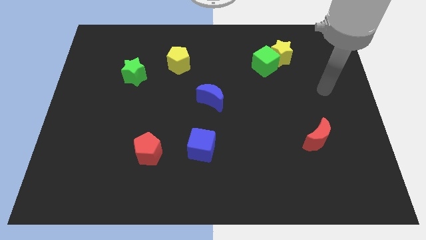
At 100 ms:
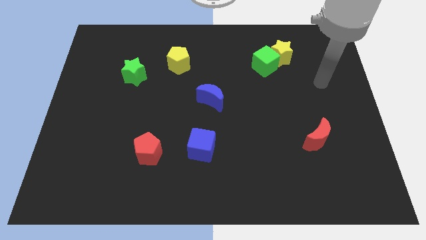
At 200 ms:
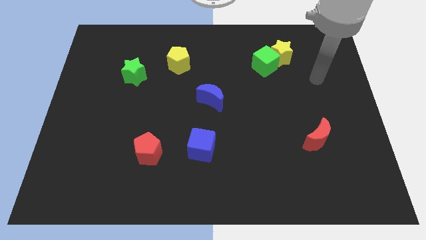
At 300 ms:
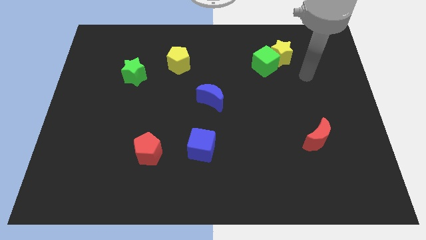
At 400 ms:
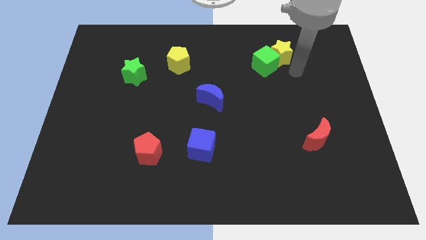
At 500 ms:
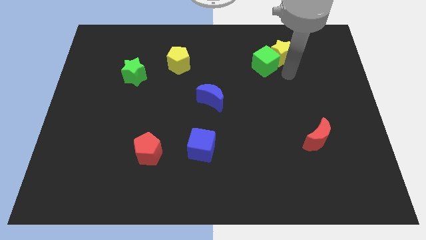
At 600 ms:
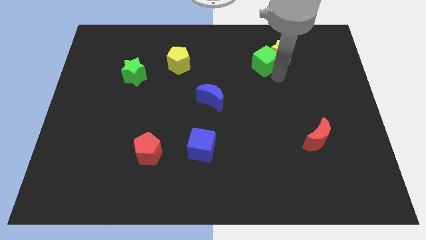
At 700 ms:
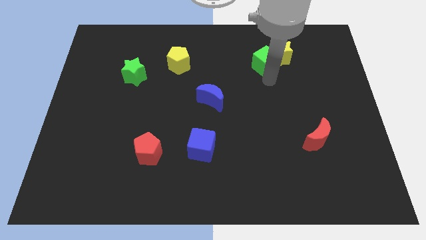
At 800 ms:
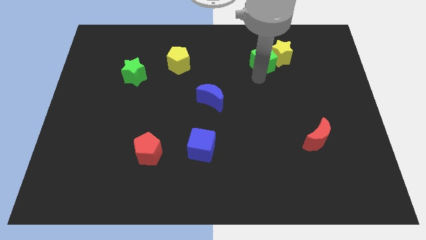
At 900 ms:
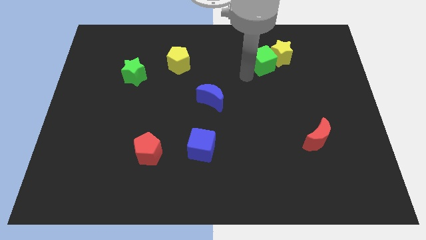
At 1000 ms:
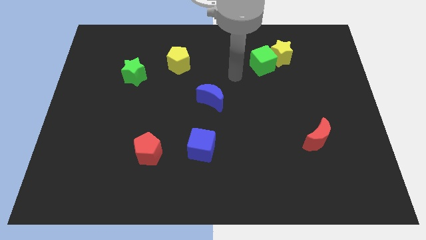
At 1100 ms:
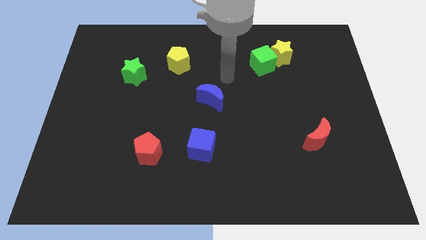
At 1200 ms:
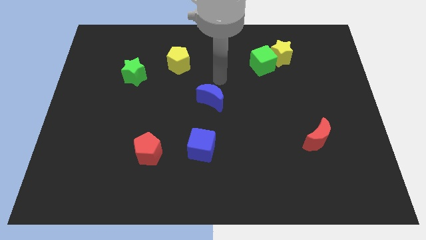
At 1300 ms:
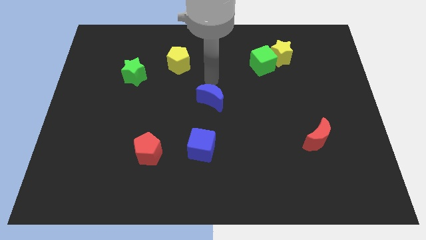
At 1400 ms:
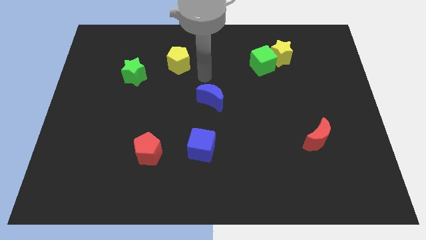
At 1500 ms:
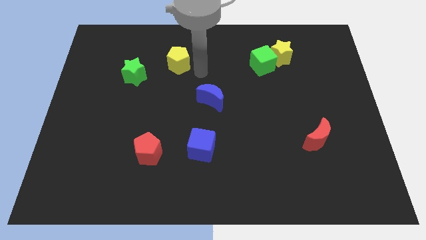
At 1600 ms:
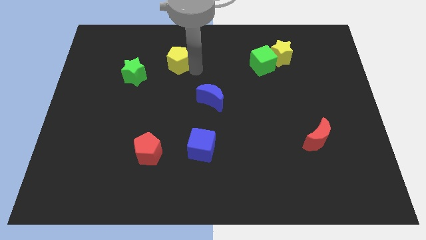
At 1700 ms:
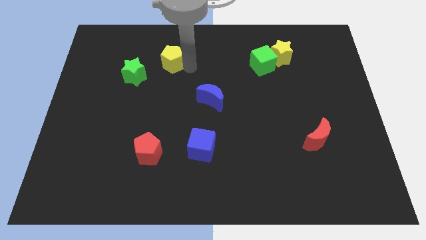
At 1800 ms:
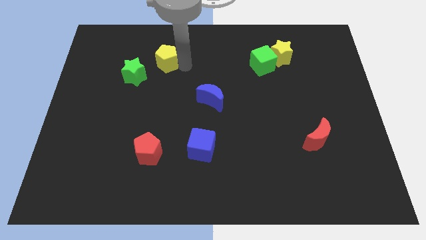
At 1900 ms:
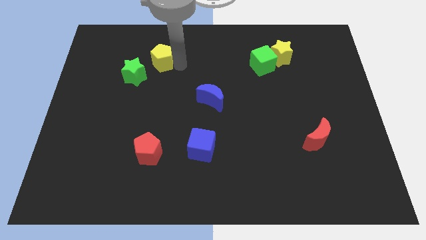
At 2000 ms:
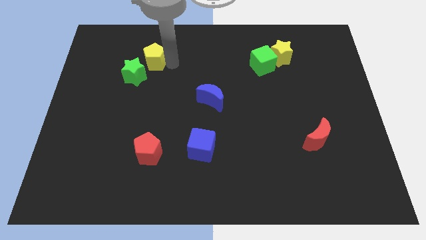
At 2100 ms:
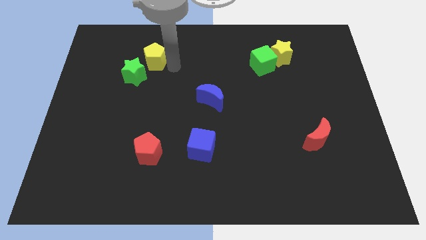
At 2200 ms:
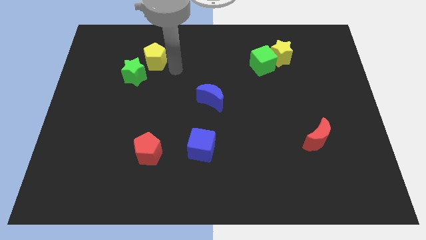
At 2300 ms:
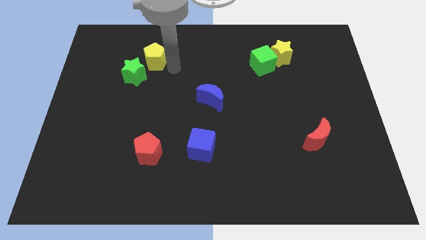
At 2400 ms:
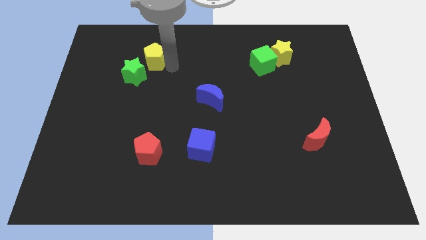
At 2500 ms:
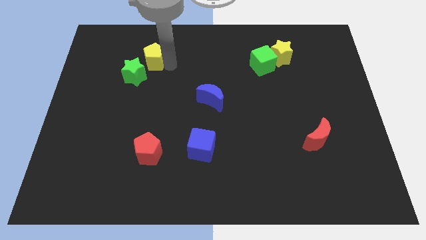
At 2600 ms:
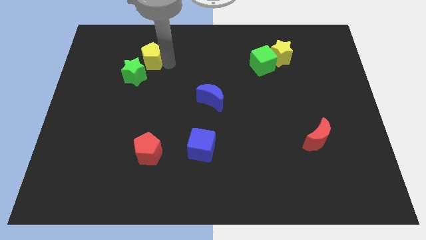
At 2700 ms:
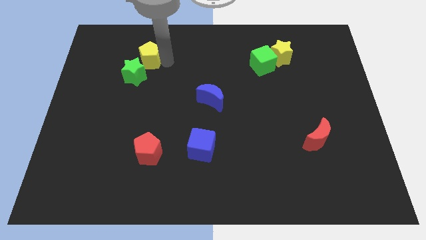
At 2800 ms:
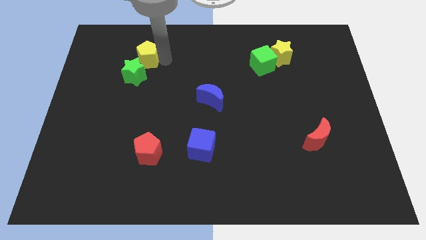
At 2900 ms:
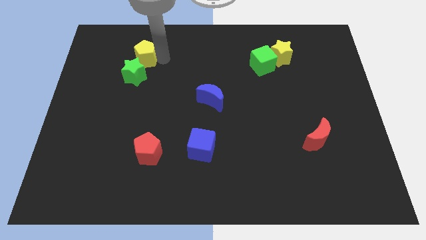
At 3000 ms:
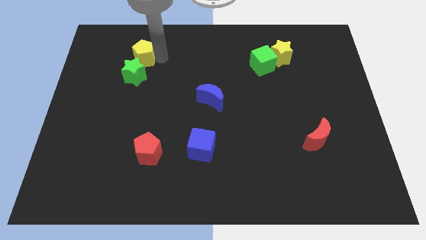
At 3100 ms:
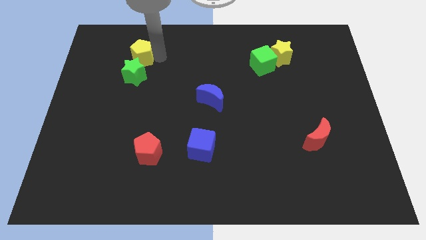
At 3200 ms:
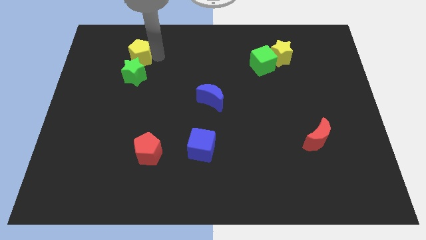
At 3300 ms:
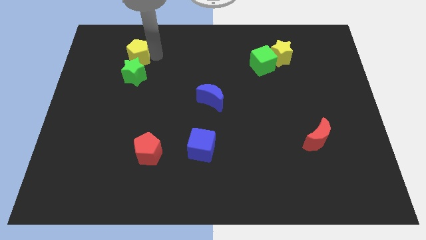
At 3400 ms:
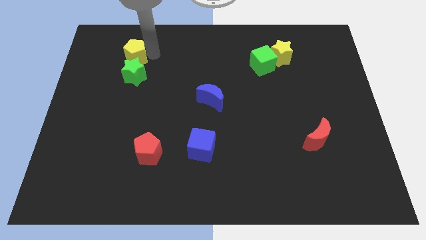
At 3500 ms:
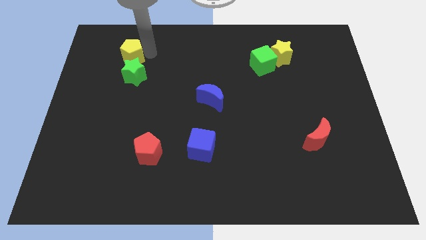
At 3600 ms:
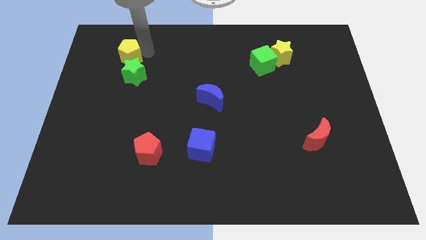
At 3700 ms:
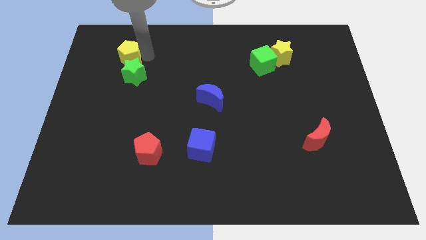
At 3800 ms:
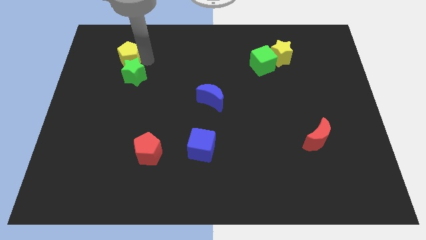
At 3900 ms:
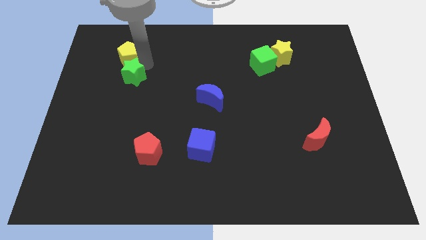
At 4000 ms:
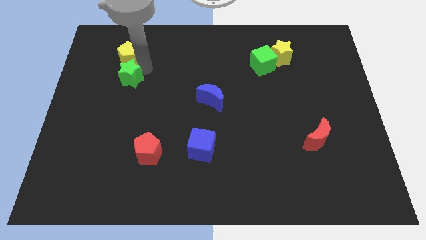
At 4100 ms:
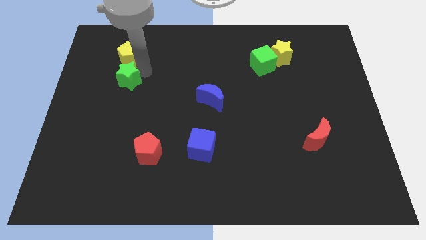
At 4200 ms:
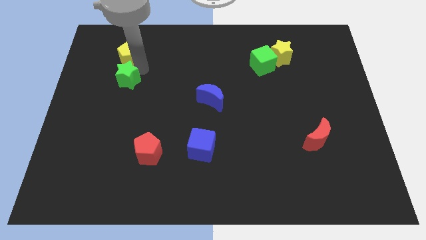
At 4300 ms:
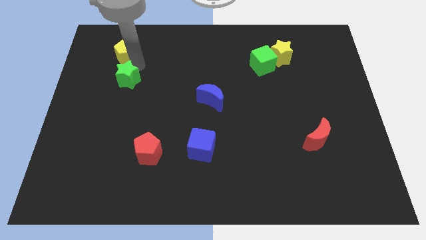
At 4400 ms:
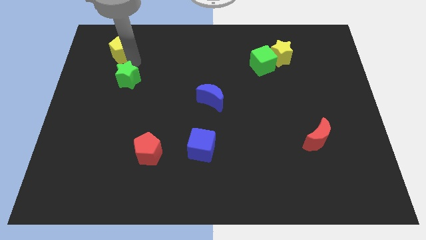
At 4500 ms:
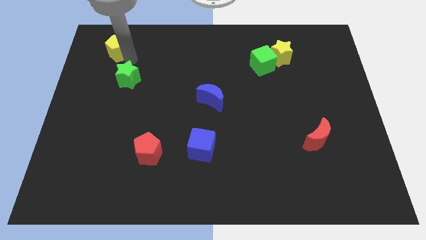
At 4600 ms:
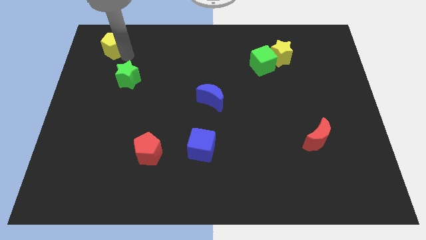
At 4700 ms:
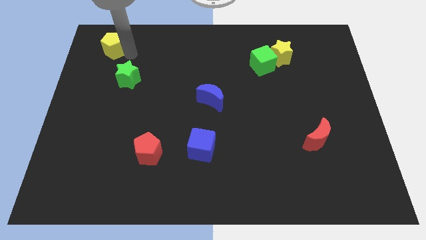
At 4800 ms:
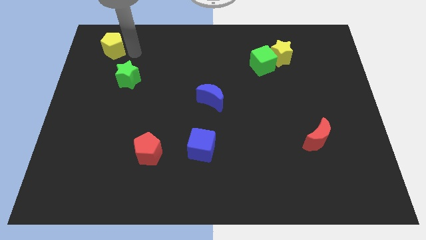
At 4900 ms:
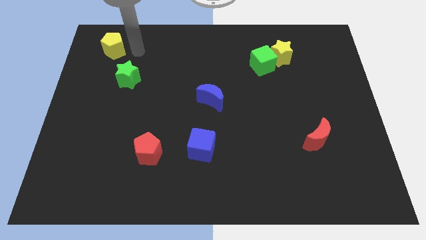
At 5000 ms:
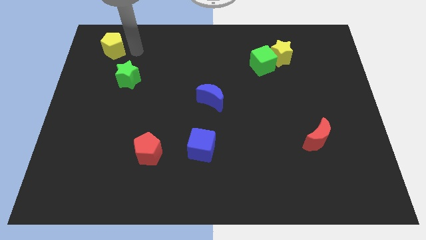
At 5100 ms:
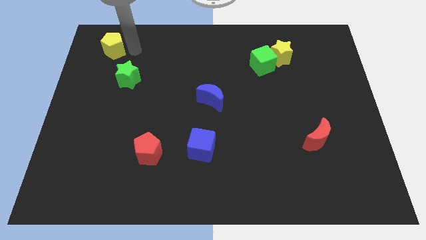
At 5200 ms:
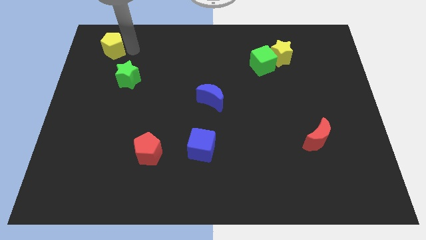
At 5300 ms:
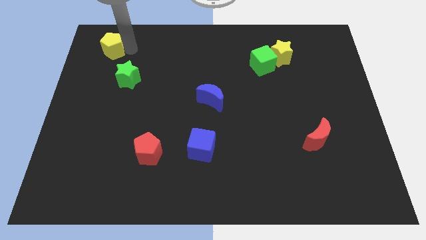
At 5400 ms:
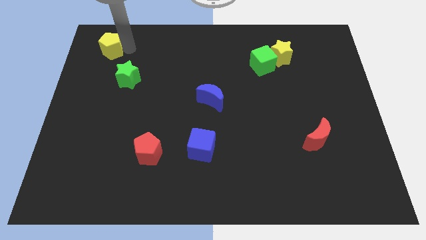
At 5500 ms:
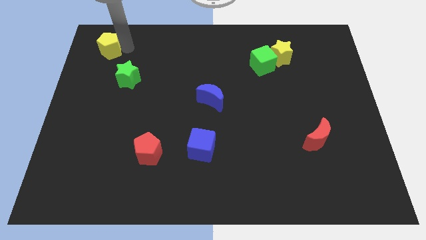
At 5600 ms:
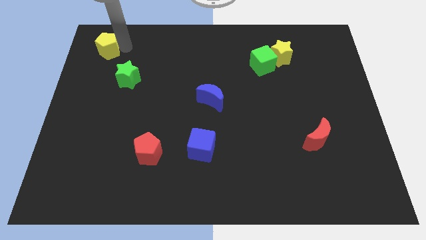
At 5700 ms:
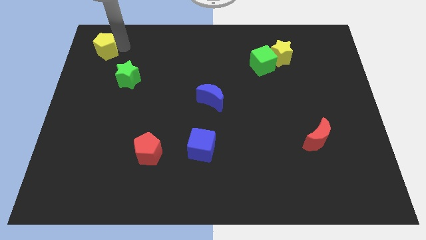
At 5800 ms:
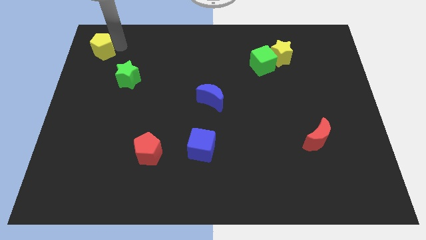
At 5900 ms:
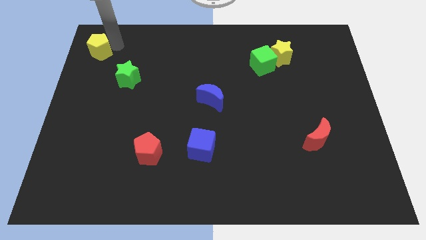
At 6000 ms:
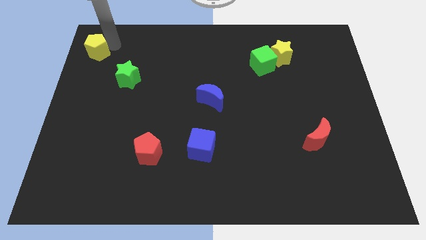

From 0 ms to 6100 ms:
slide the yellow pentagon to the top left corner
